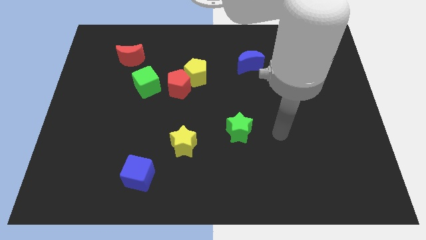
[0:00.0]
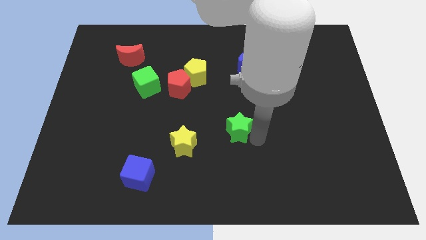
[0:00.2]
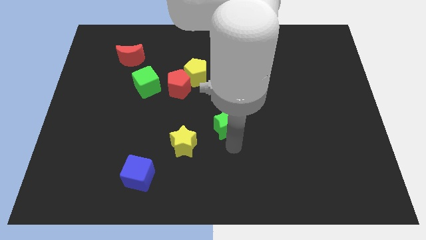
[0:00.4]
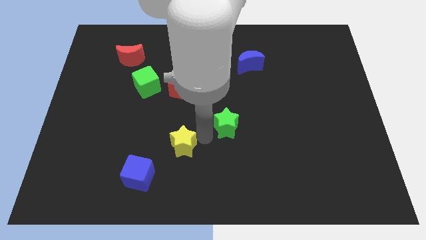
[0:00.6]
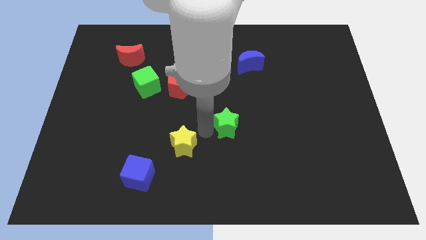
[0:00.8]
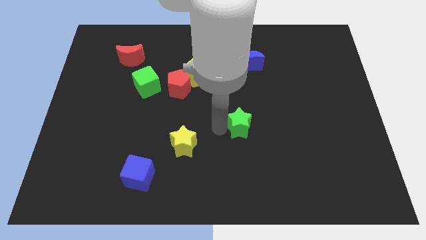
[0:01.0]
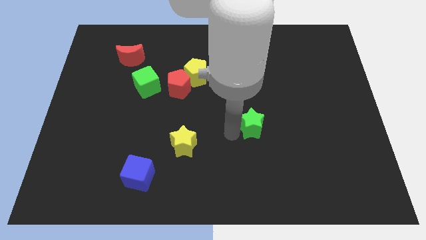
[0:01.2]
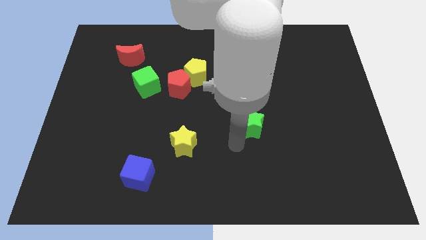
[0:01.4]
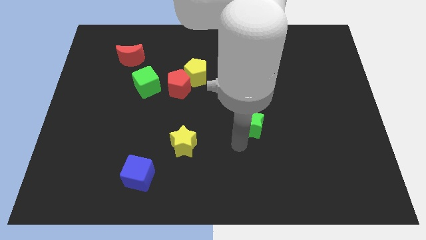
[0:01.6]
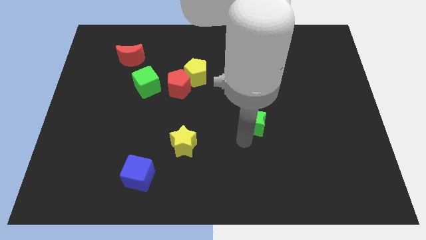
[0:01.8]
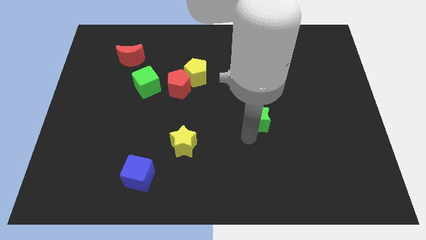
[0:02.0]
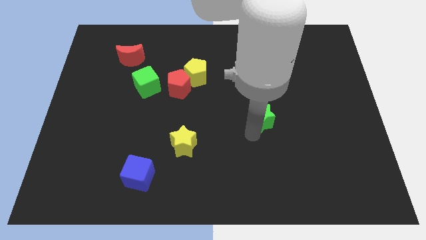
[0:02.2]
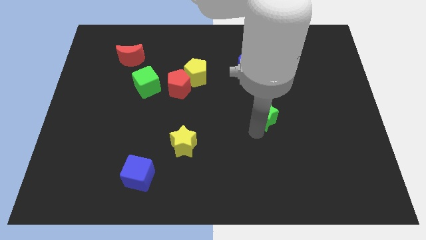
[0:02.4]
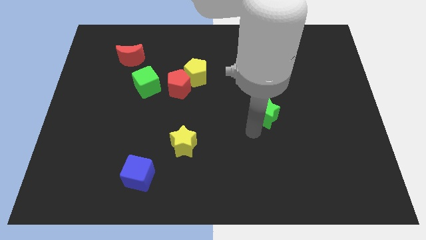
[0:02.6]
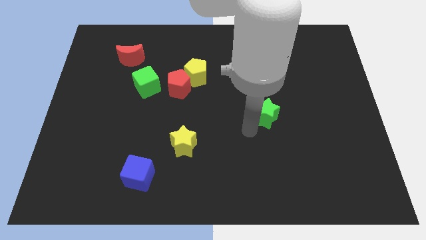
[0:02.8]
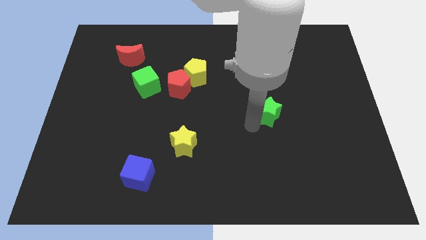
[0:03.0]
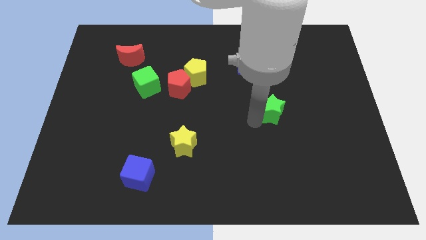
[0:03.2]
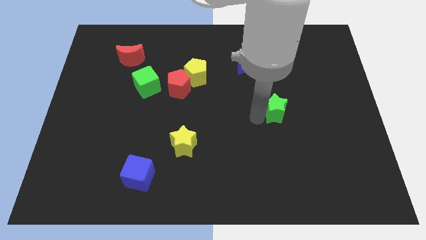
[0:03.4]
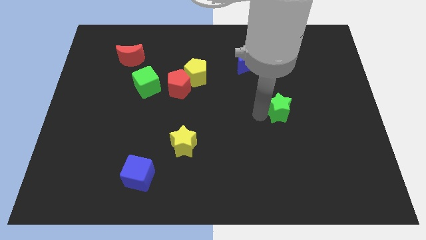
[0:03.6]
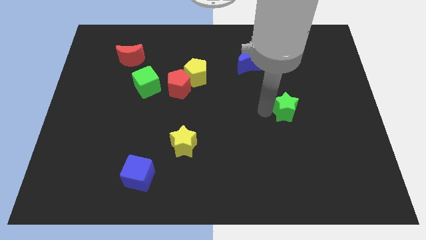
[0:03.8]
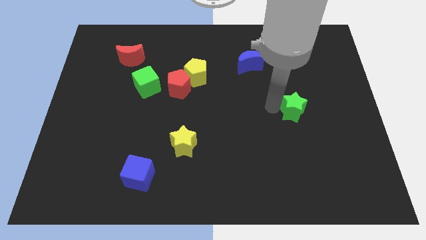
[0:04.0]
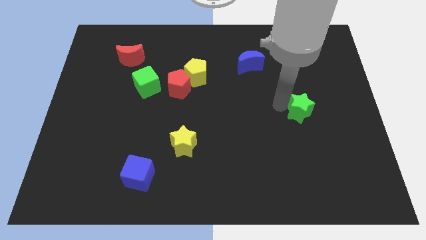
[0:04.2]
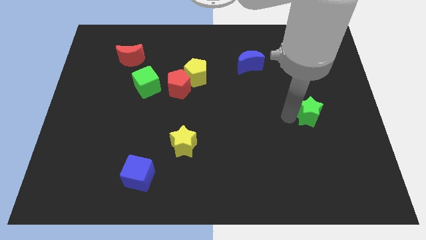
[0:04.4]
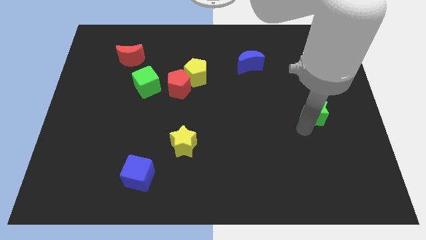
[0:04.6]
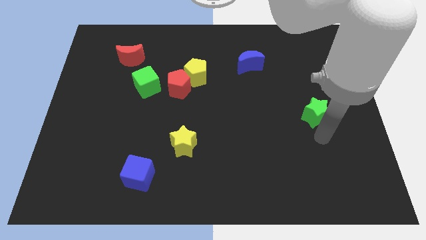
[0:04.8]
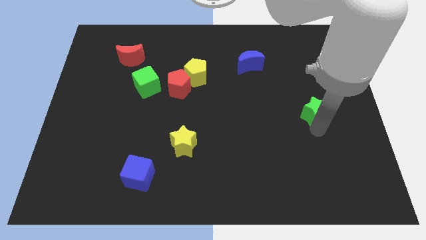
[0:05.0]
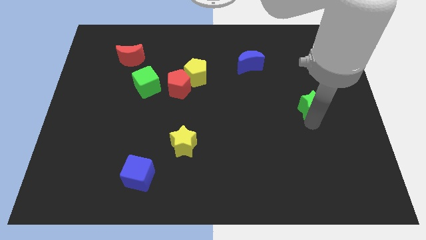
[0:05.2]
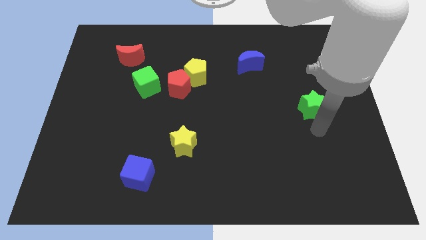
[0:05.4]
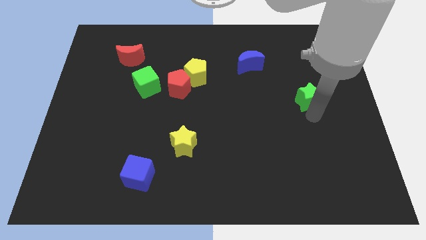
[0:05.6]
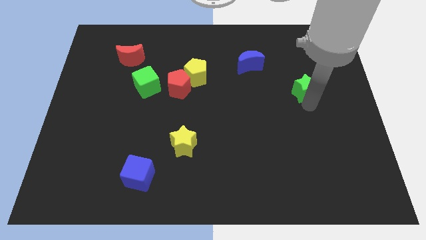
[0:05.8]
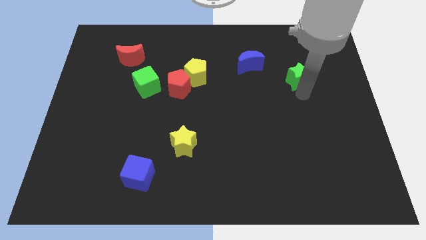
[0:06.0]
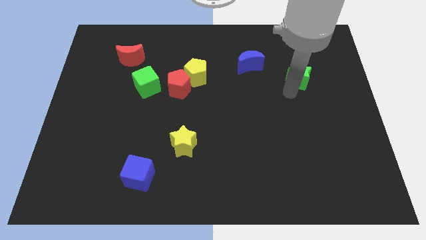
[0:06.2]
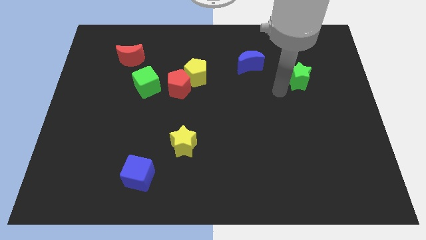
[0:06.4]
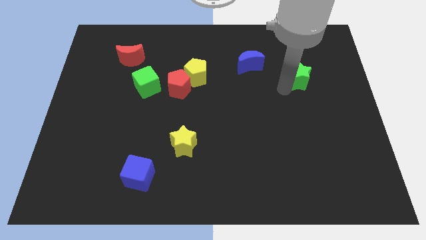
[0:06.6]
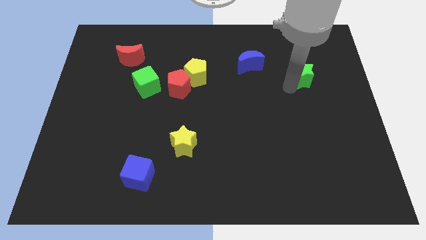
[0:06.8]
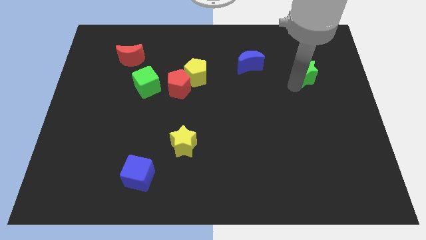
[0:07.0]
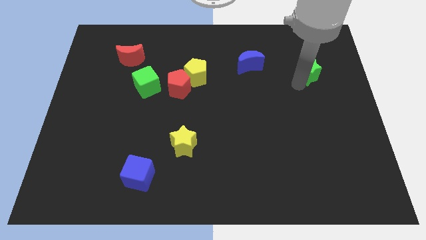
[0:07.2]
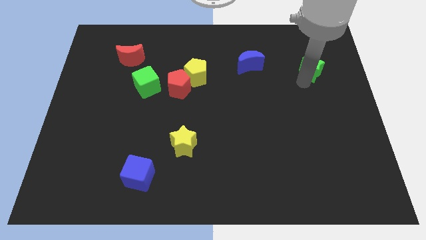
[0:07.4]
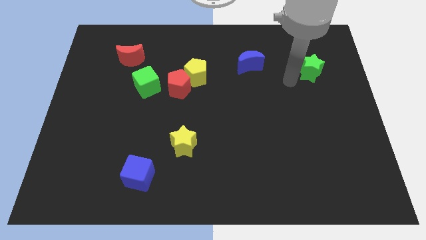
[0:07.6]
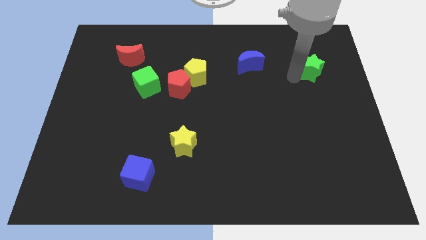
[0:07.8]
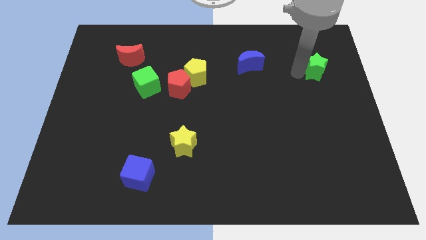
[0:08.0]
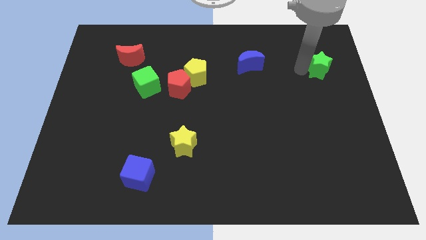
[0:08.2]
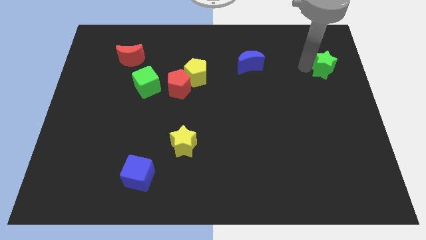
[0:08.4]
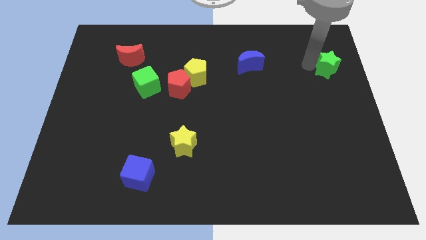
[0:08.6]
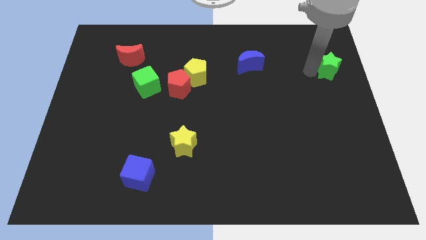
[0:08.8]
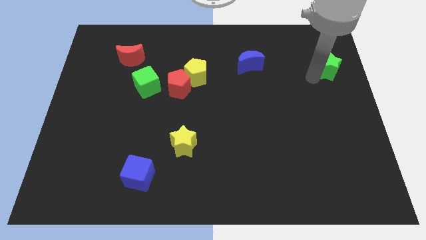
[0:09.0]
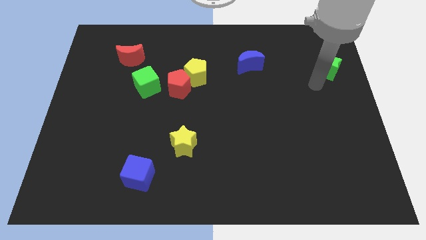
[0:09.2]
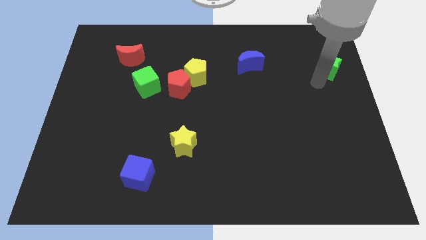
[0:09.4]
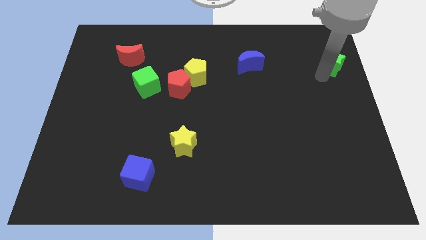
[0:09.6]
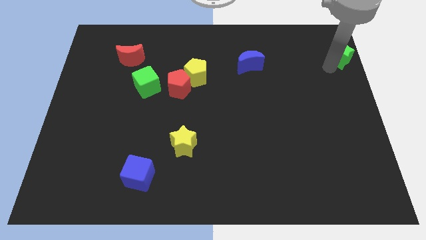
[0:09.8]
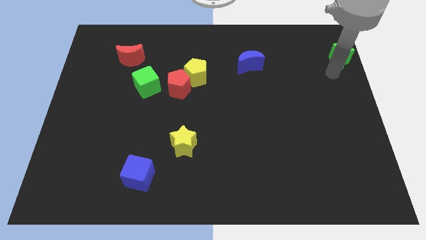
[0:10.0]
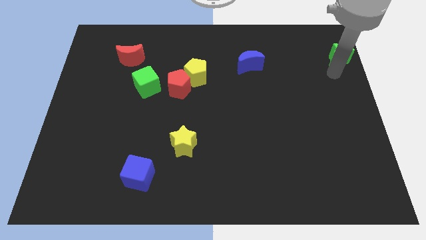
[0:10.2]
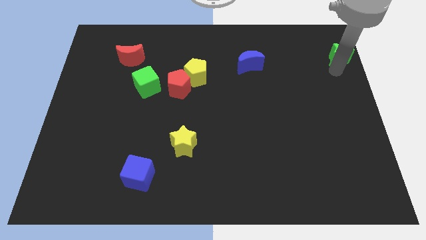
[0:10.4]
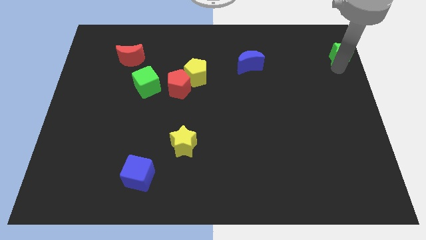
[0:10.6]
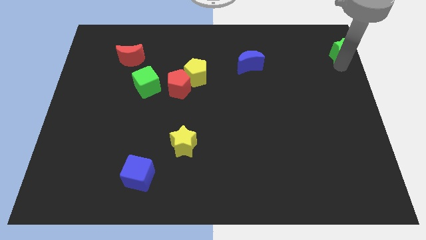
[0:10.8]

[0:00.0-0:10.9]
move the green star to the top right corner
